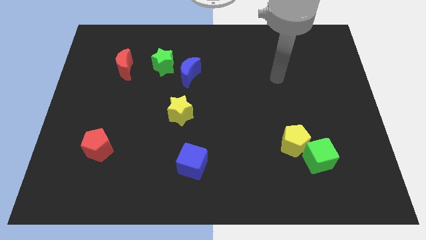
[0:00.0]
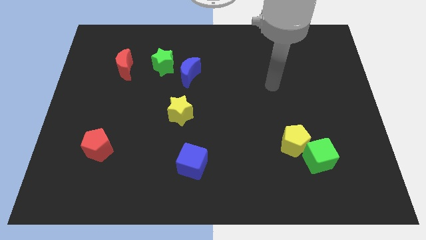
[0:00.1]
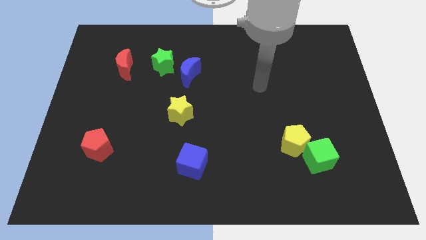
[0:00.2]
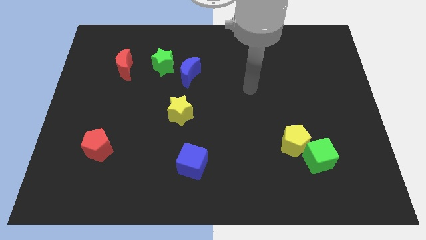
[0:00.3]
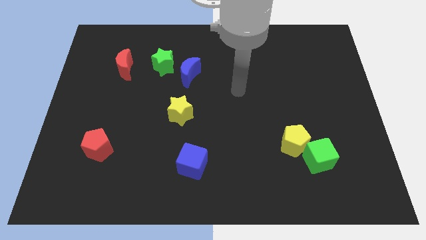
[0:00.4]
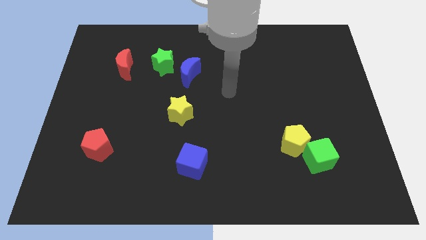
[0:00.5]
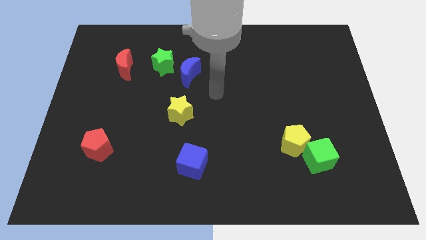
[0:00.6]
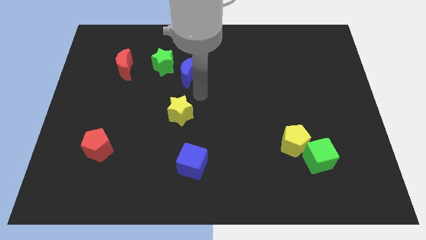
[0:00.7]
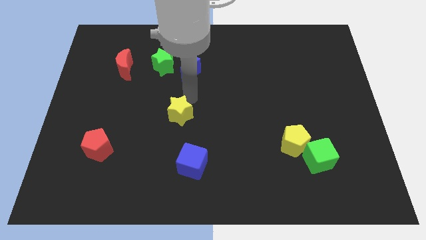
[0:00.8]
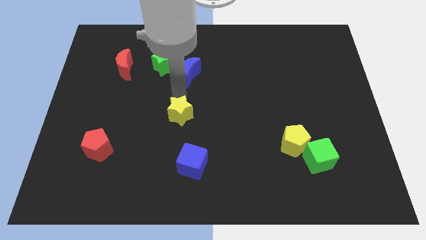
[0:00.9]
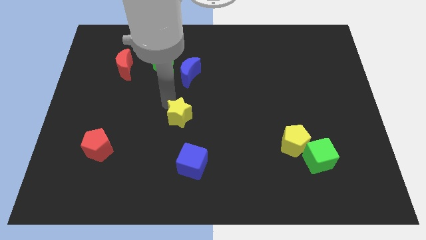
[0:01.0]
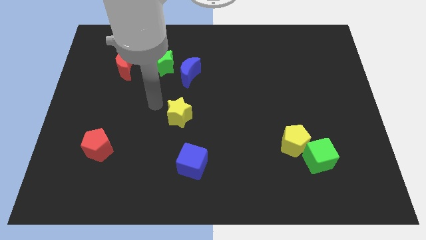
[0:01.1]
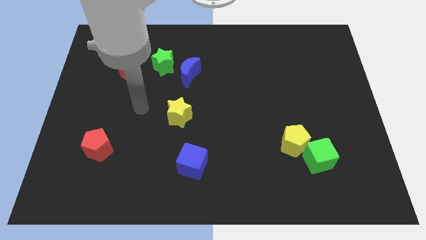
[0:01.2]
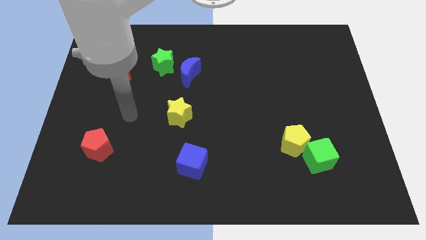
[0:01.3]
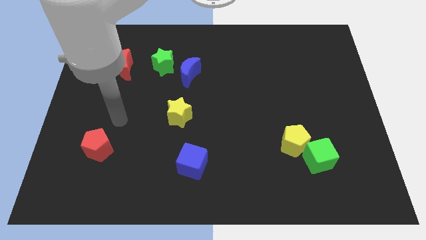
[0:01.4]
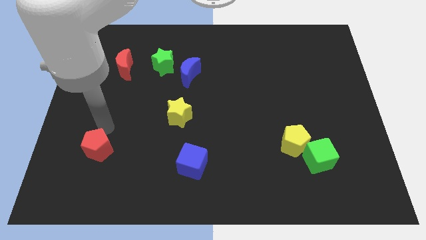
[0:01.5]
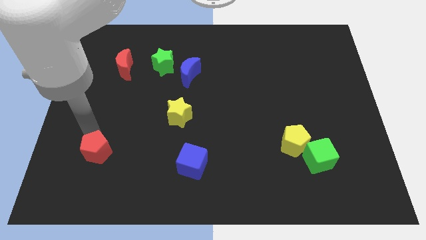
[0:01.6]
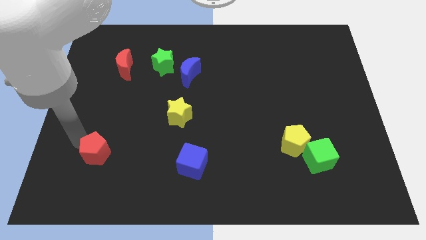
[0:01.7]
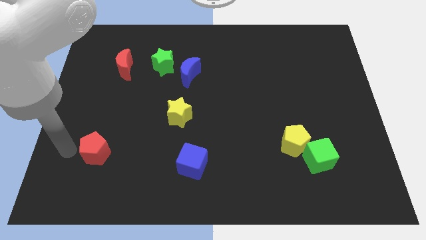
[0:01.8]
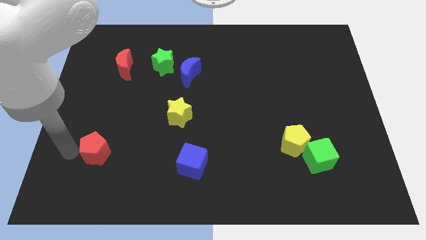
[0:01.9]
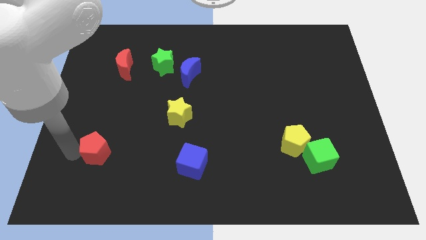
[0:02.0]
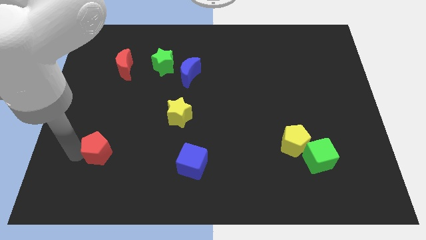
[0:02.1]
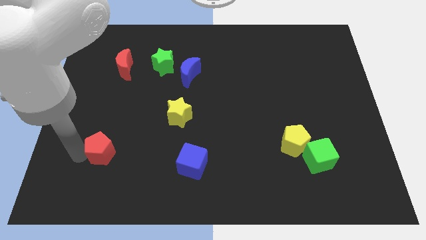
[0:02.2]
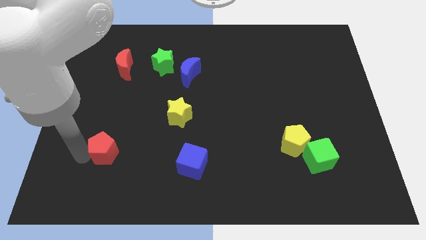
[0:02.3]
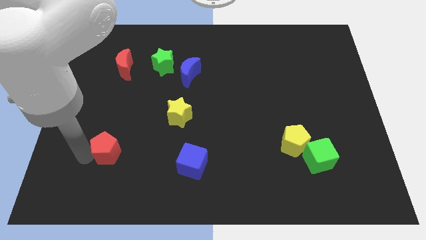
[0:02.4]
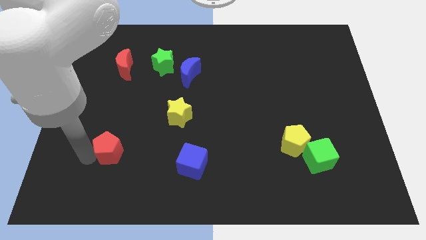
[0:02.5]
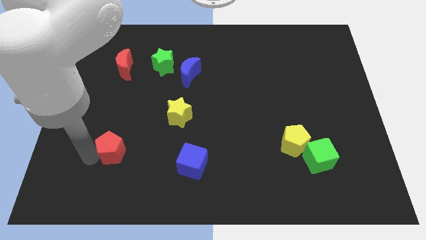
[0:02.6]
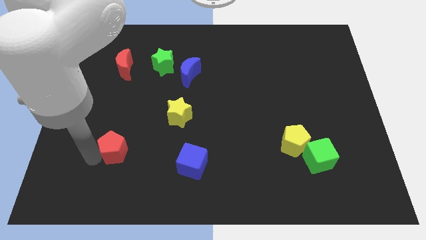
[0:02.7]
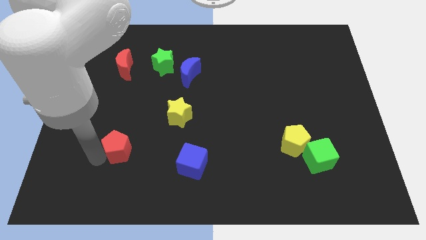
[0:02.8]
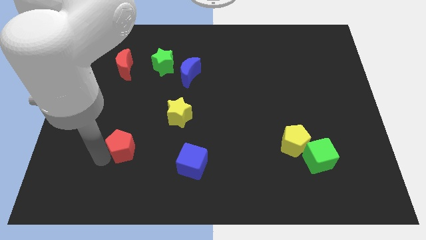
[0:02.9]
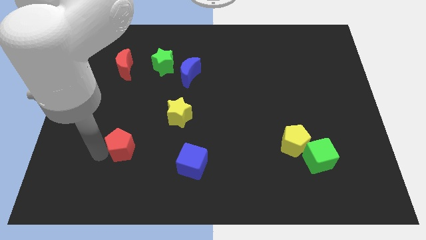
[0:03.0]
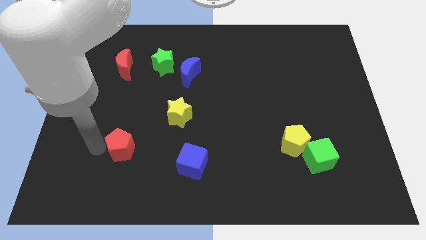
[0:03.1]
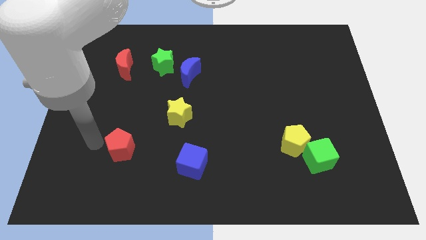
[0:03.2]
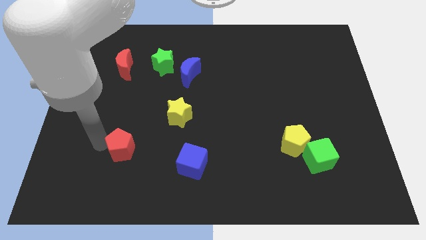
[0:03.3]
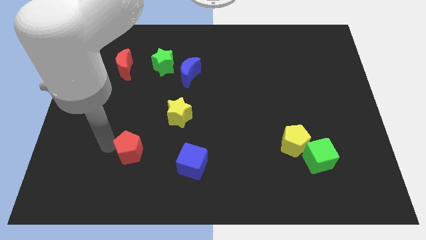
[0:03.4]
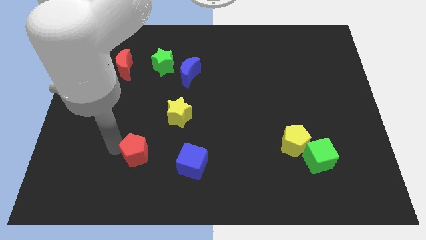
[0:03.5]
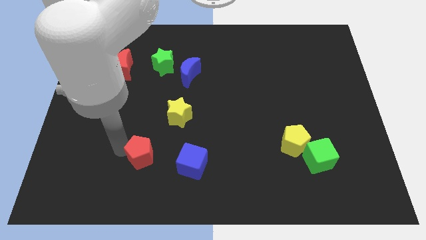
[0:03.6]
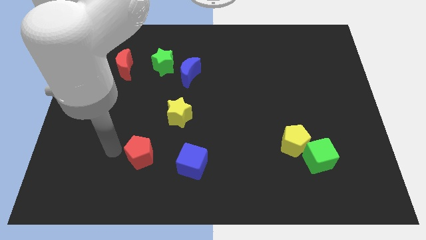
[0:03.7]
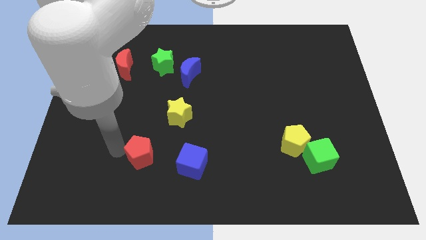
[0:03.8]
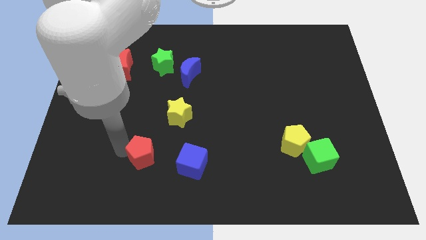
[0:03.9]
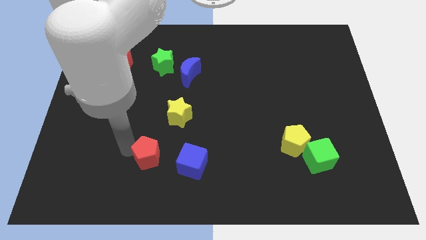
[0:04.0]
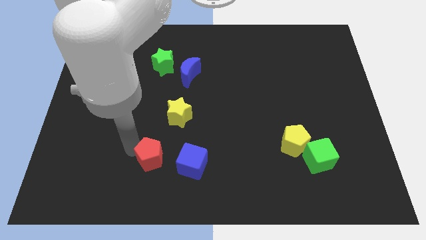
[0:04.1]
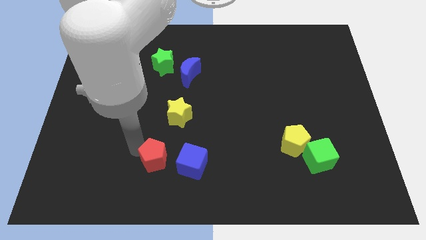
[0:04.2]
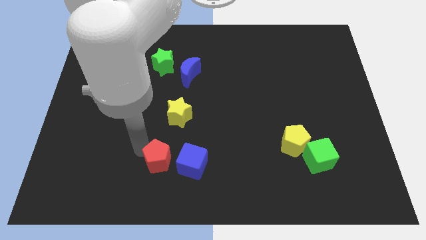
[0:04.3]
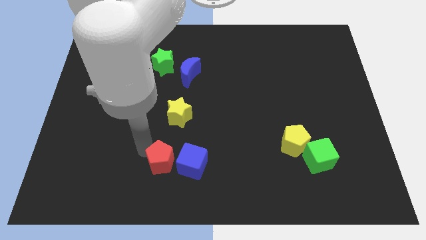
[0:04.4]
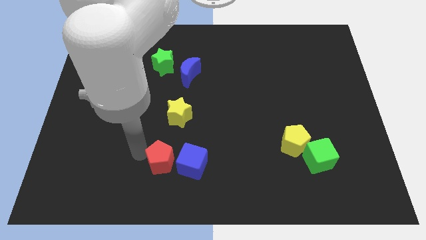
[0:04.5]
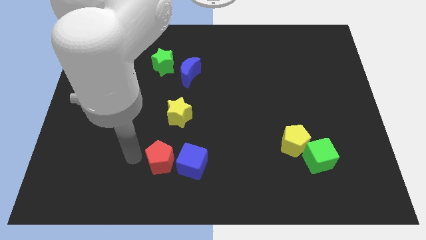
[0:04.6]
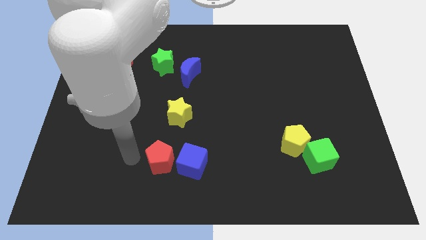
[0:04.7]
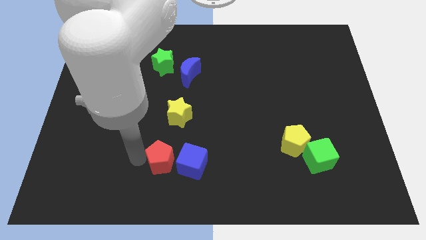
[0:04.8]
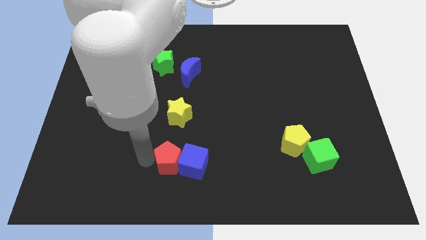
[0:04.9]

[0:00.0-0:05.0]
slide the red pentagon to the blue cube

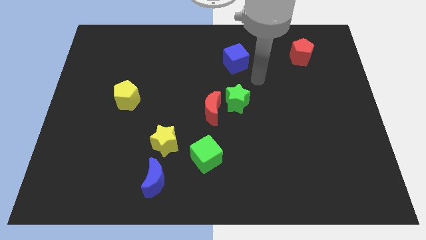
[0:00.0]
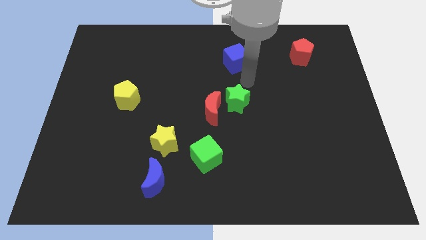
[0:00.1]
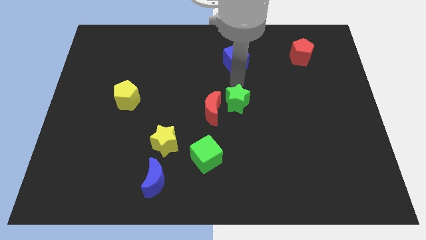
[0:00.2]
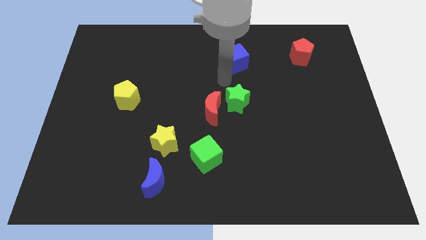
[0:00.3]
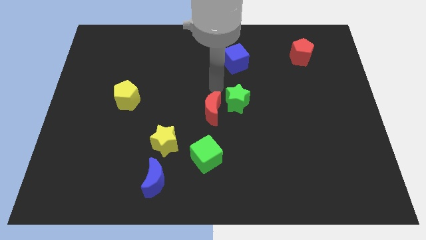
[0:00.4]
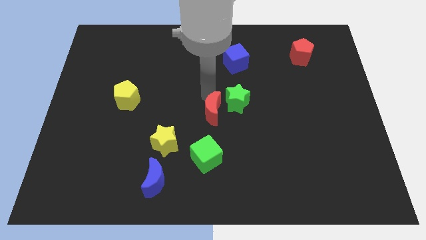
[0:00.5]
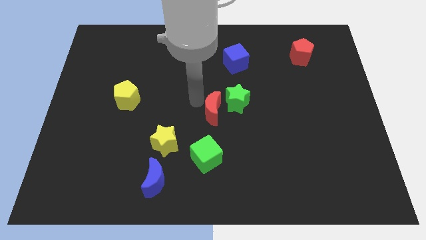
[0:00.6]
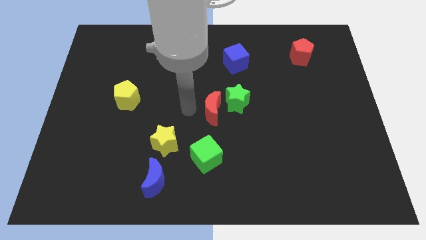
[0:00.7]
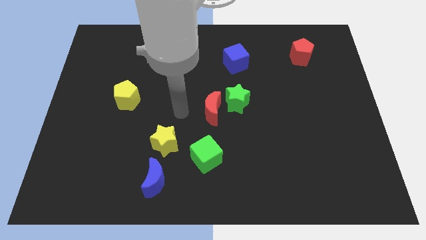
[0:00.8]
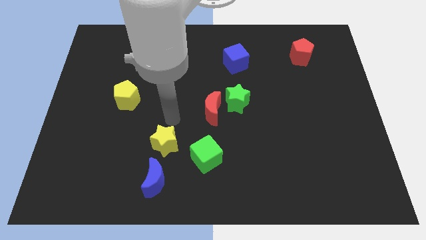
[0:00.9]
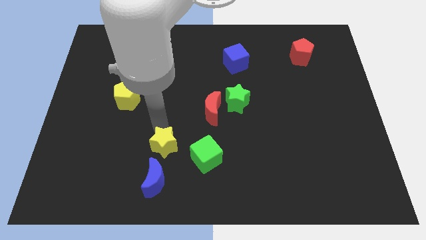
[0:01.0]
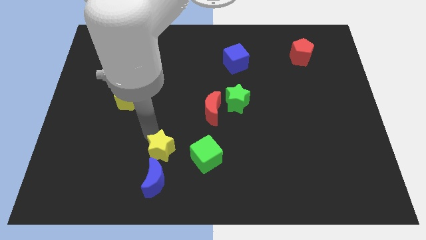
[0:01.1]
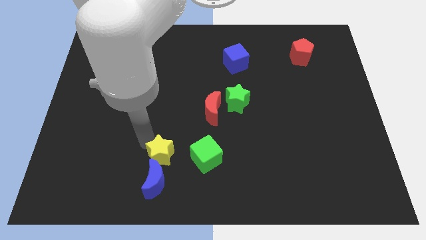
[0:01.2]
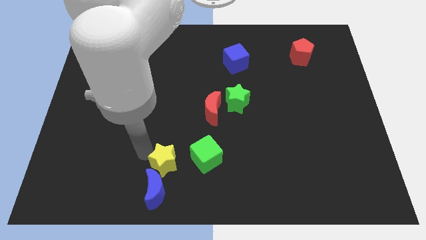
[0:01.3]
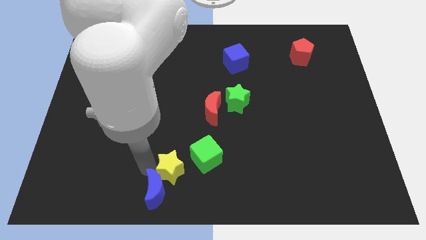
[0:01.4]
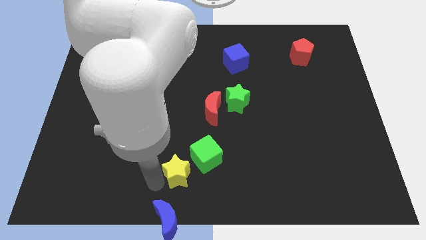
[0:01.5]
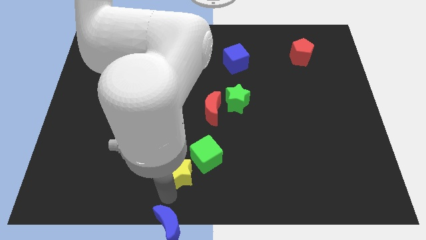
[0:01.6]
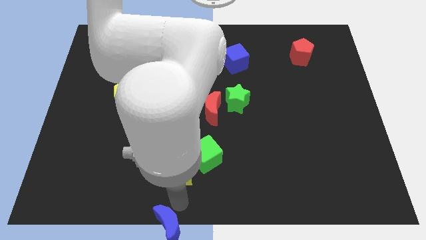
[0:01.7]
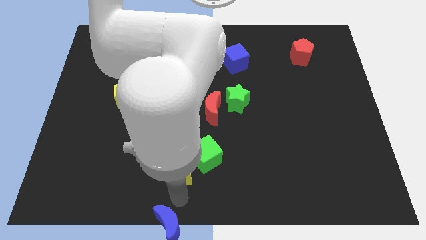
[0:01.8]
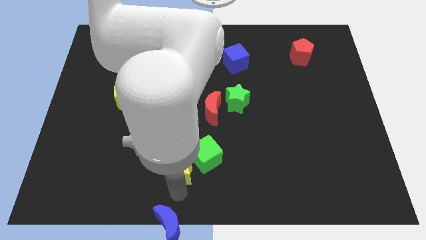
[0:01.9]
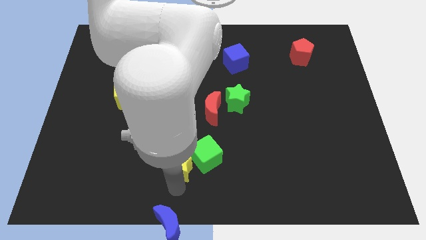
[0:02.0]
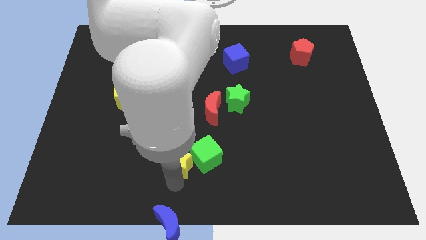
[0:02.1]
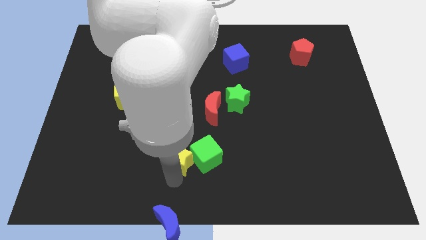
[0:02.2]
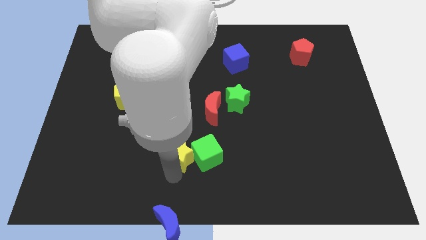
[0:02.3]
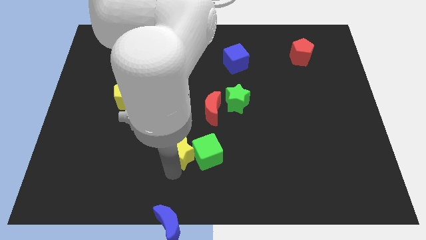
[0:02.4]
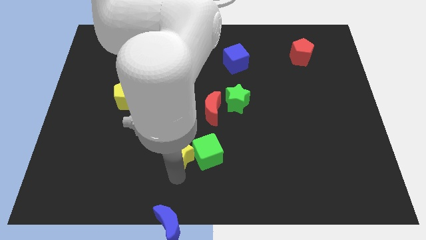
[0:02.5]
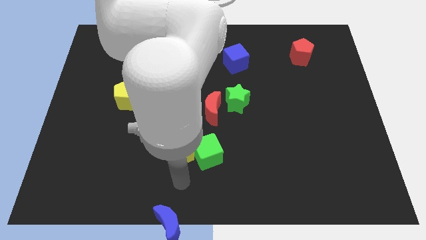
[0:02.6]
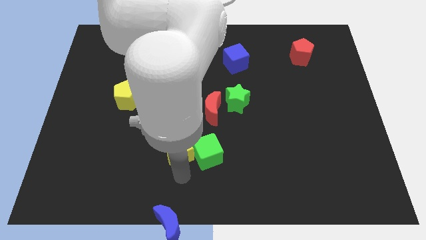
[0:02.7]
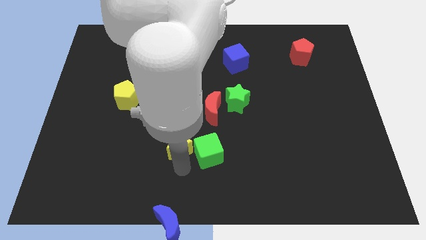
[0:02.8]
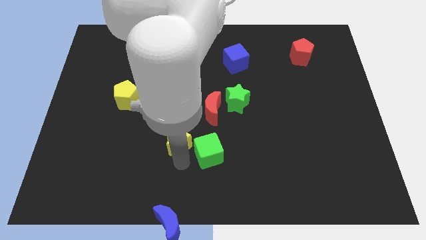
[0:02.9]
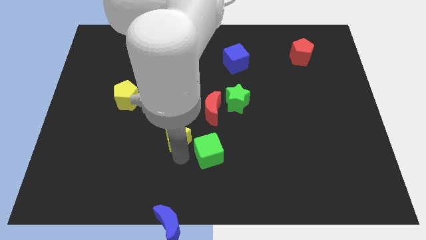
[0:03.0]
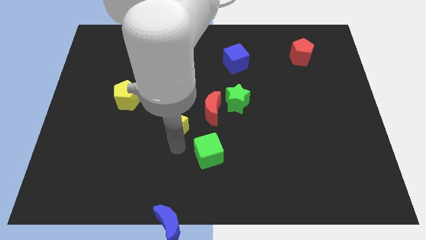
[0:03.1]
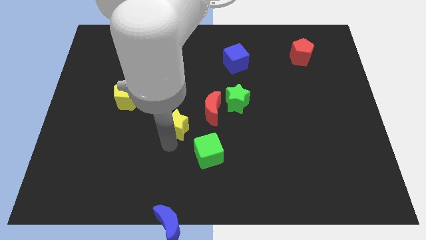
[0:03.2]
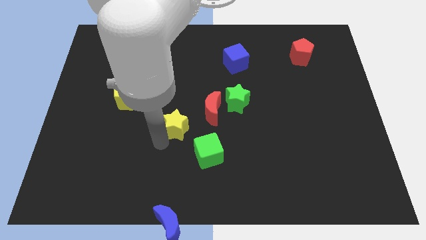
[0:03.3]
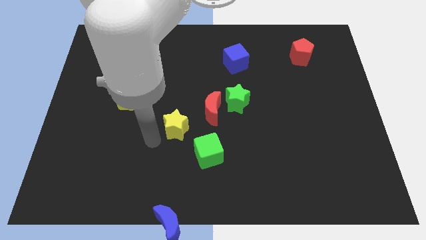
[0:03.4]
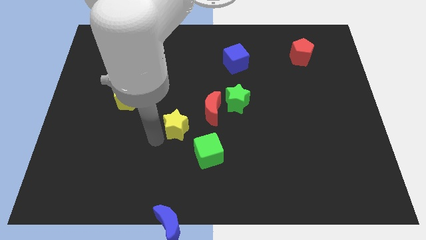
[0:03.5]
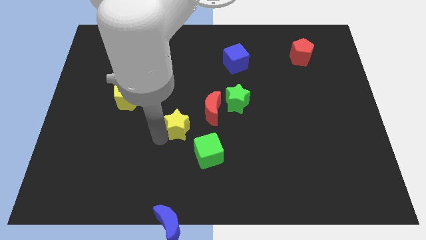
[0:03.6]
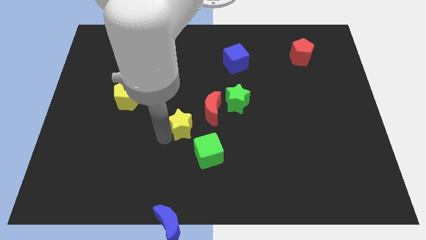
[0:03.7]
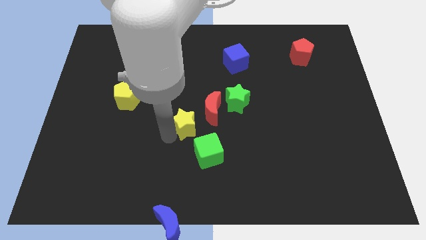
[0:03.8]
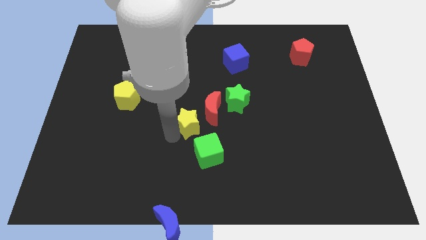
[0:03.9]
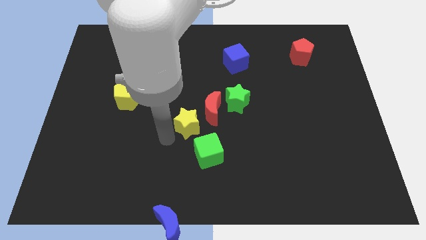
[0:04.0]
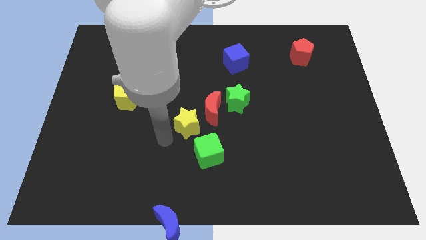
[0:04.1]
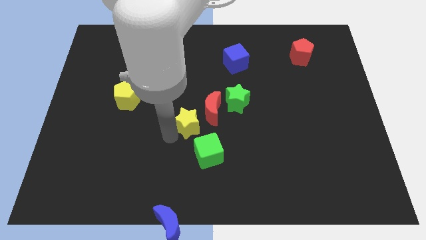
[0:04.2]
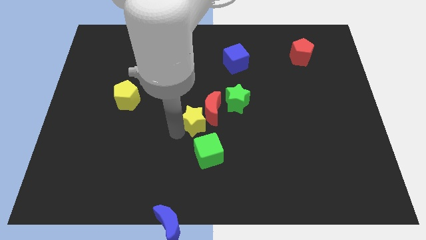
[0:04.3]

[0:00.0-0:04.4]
slide the yellow star towards the red moon
